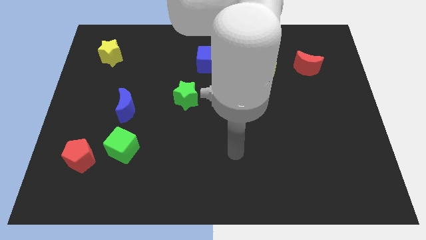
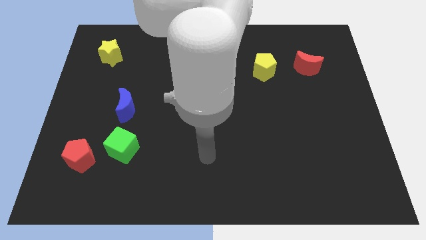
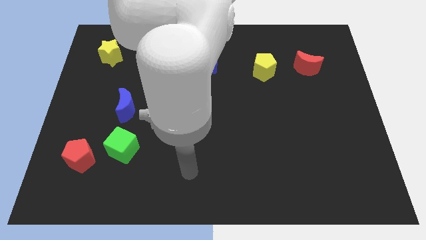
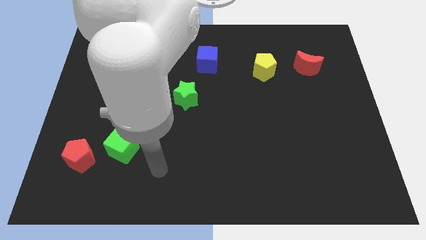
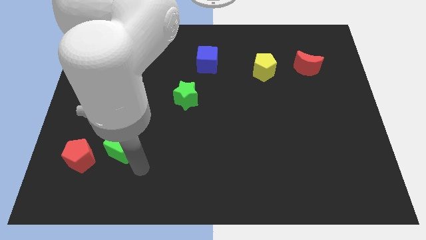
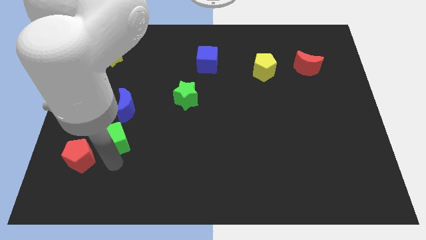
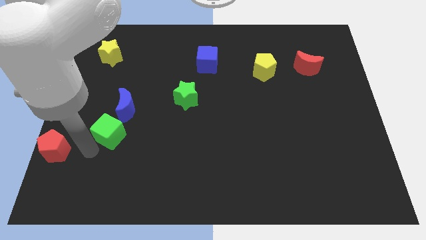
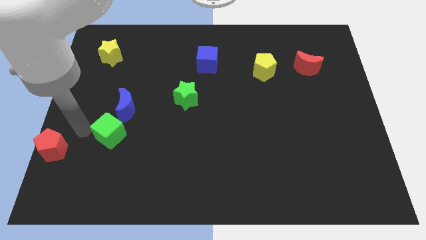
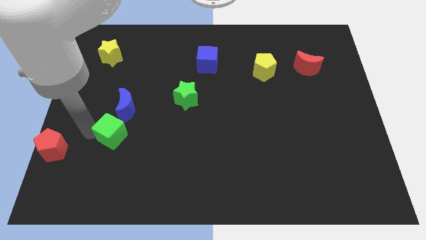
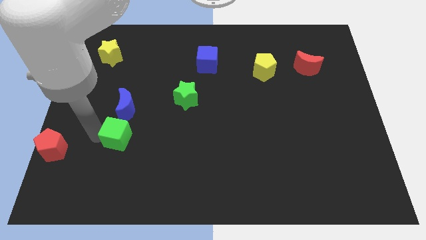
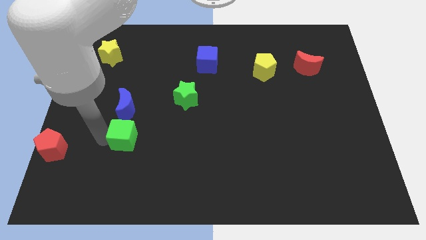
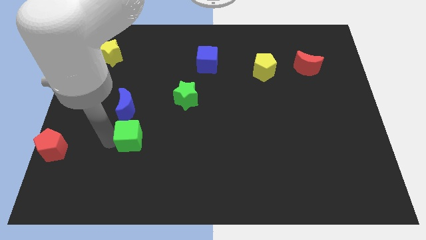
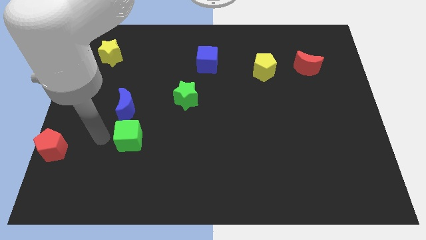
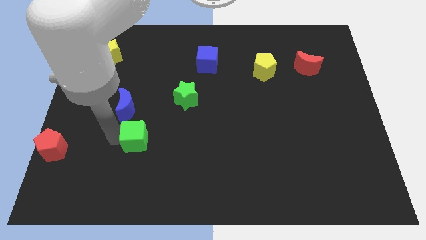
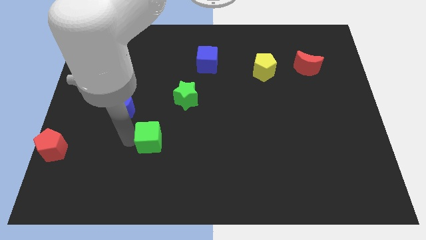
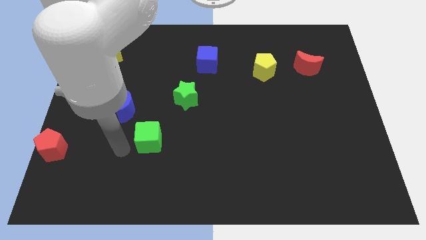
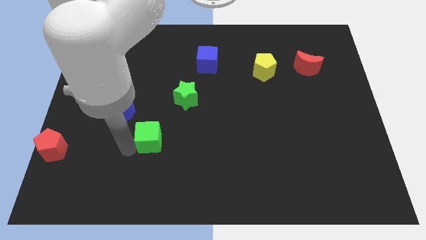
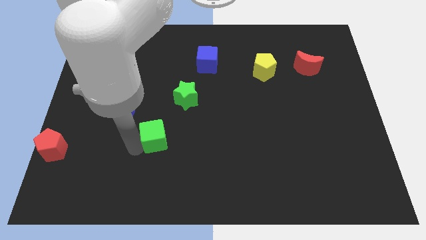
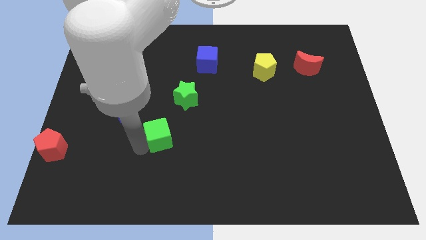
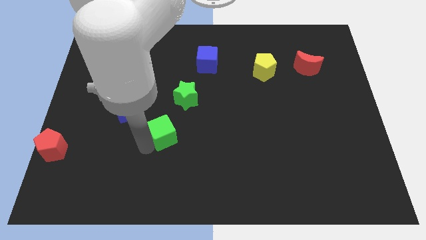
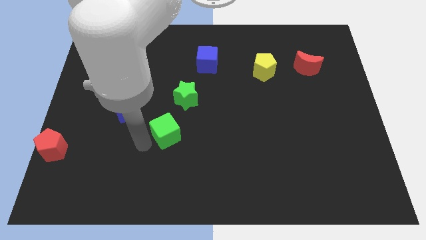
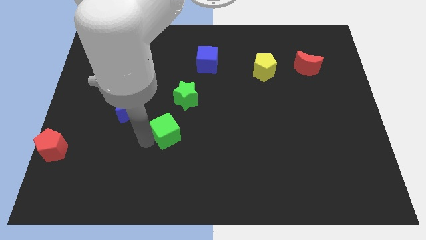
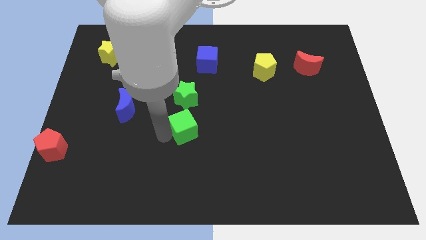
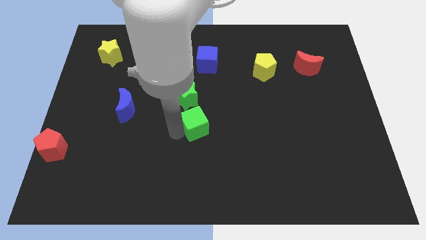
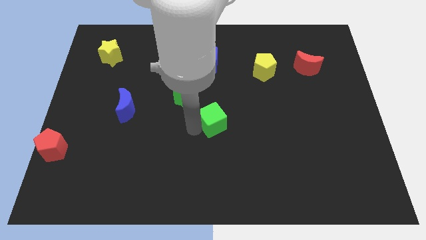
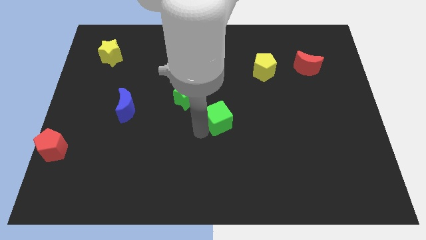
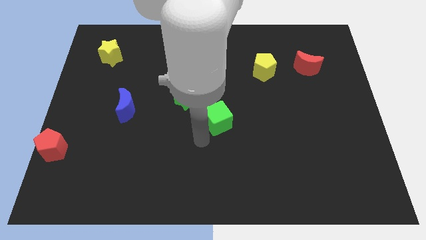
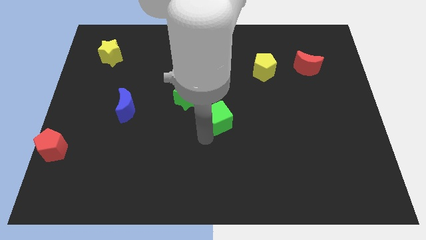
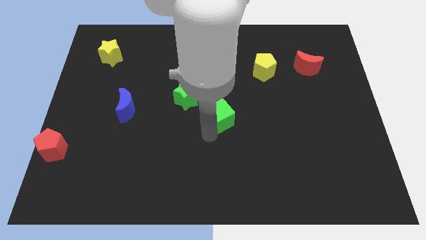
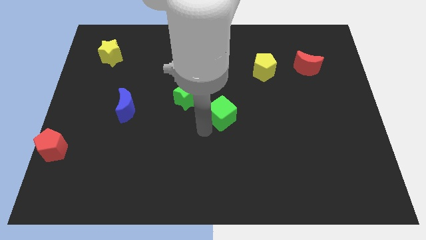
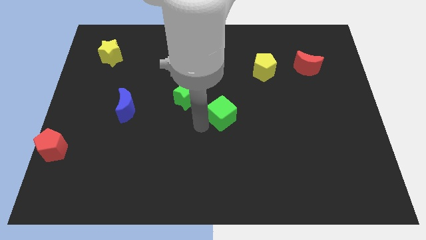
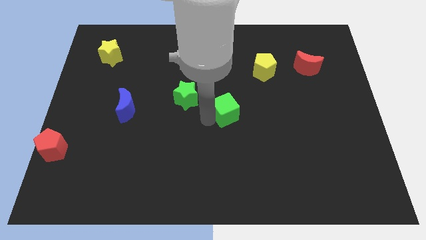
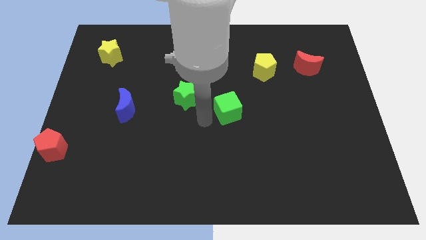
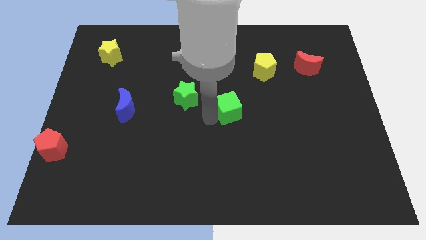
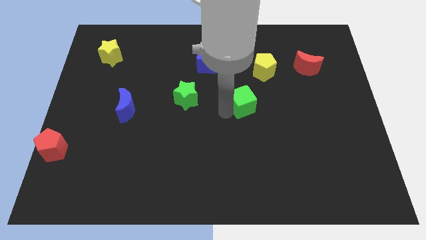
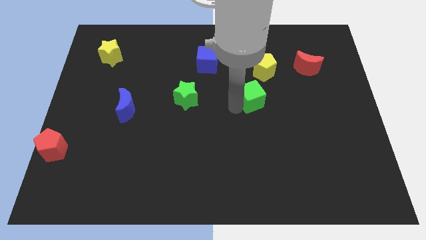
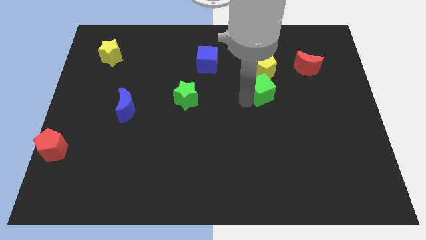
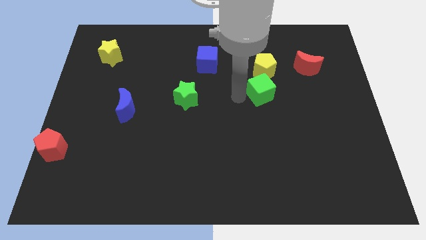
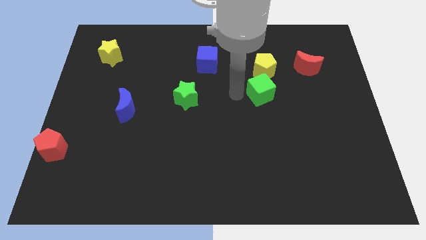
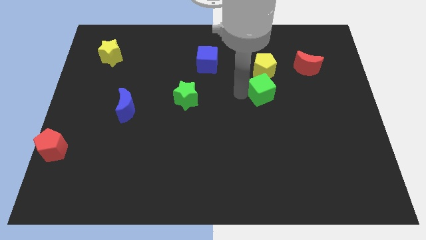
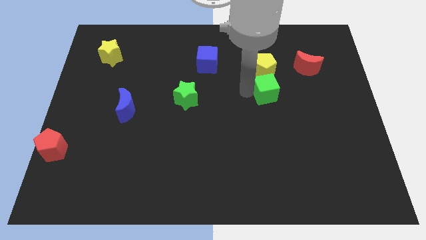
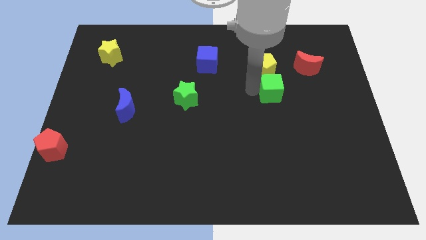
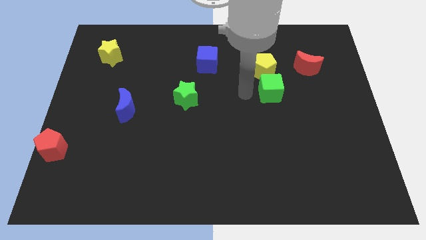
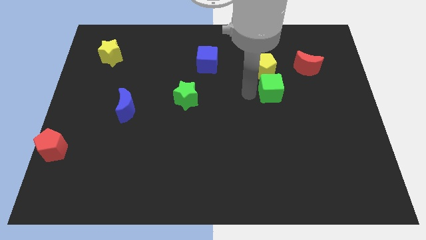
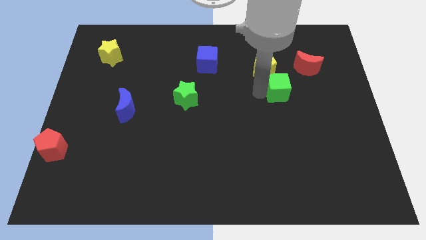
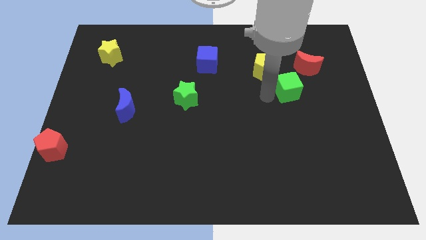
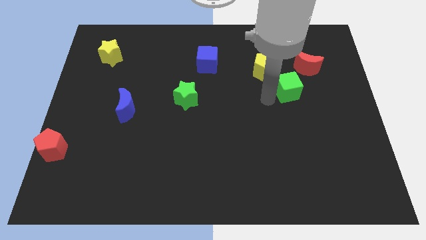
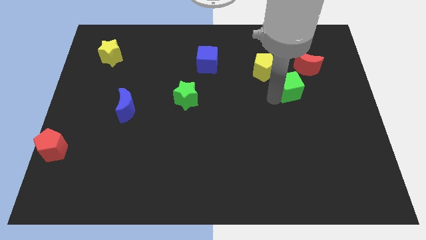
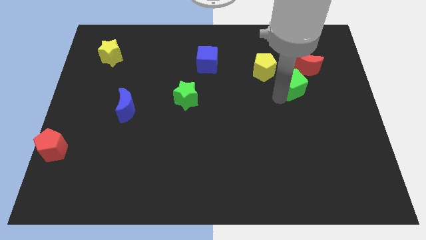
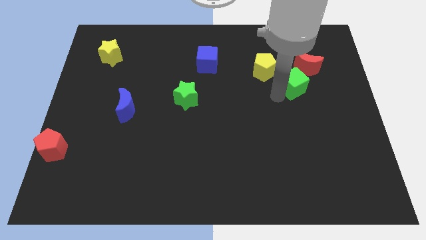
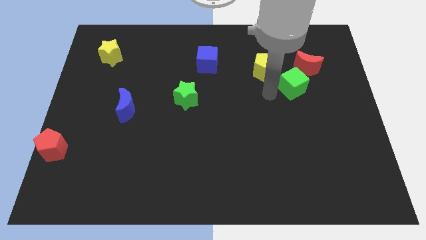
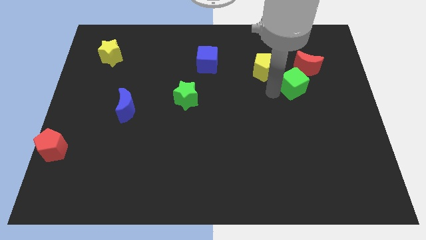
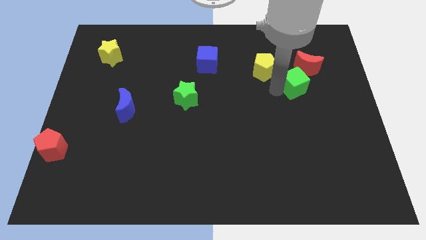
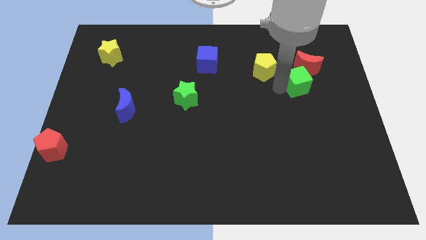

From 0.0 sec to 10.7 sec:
push the green cube to the right side of the yellow pentagon

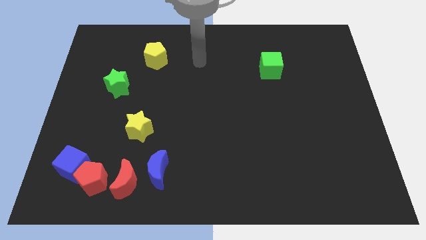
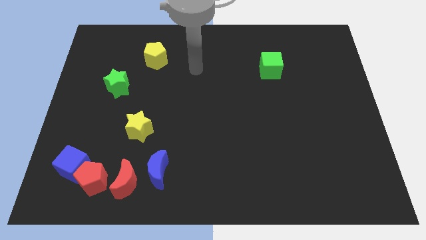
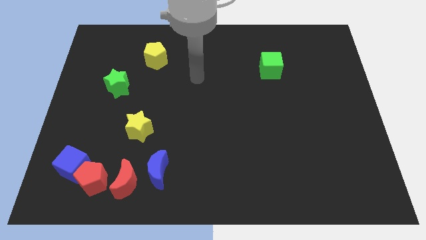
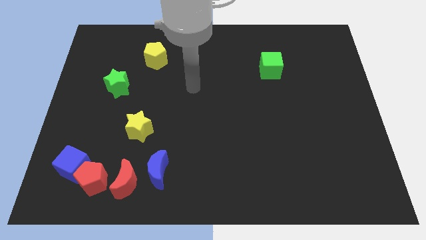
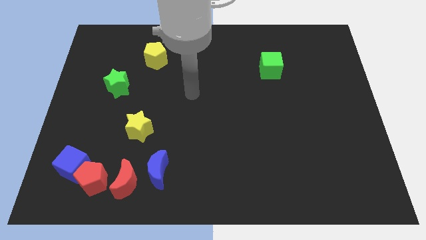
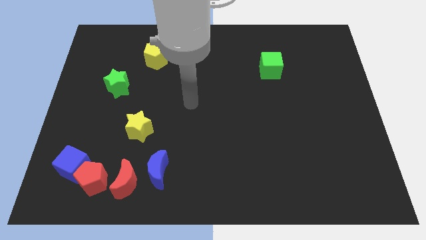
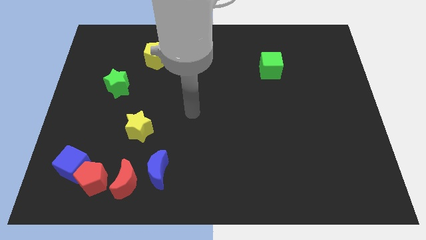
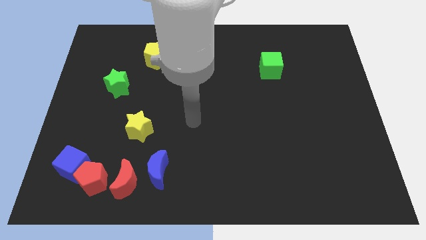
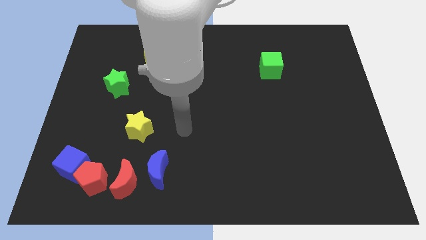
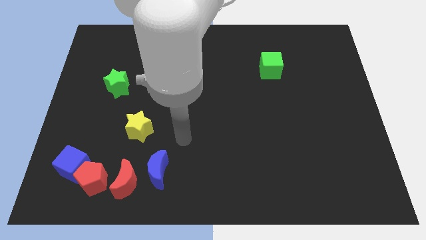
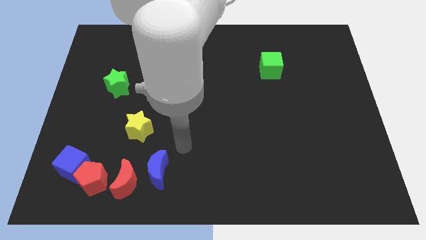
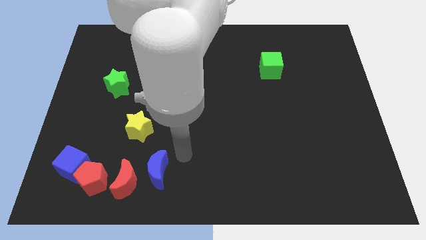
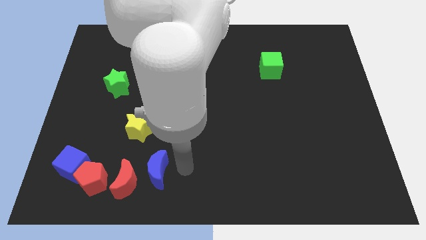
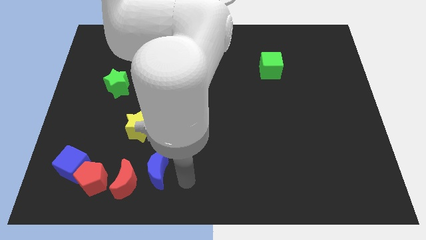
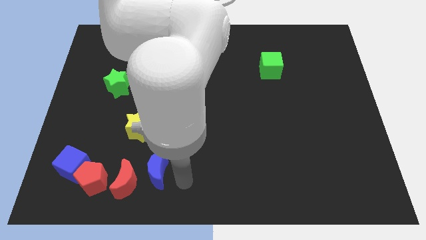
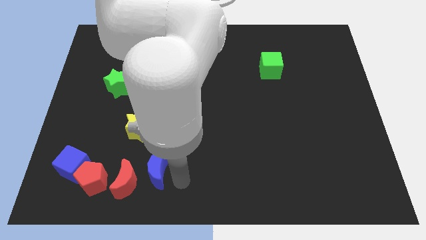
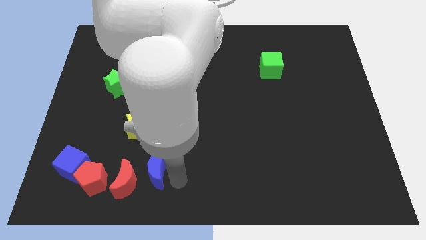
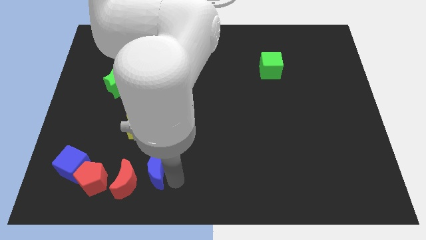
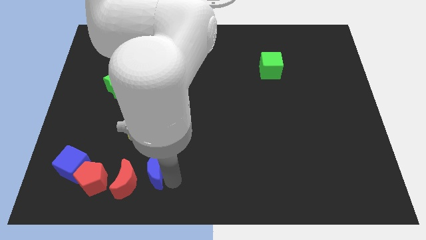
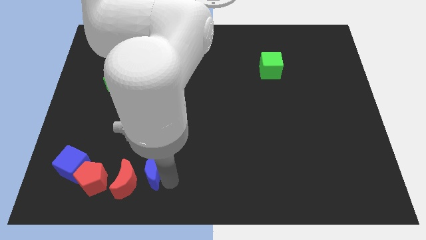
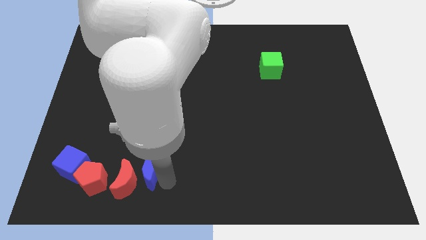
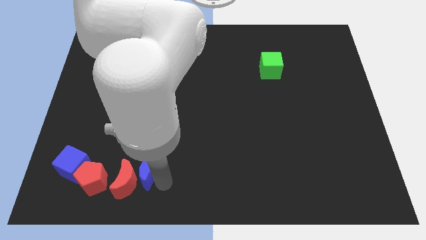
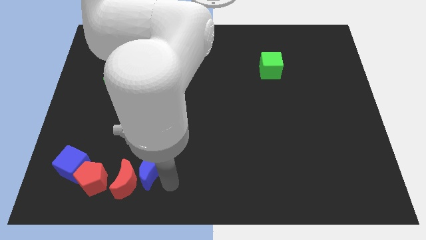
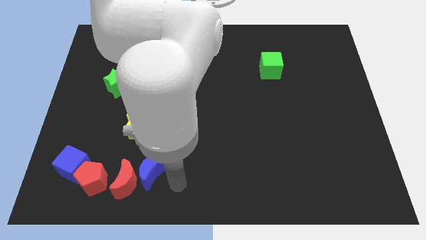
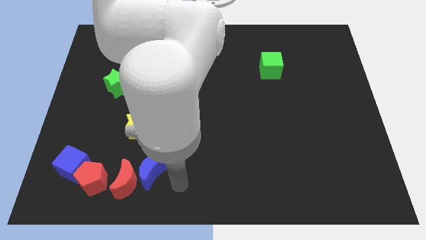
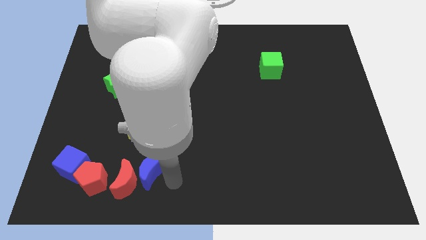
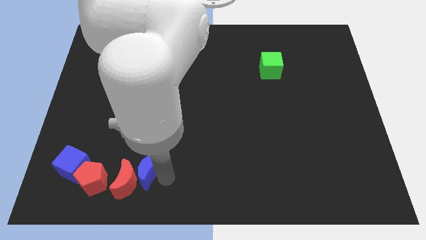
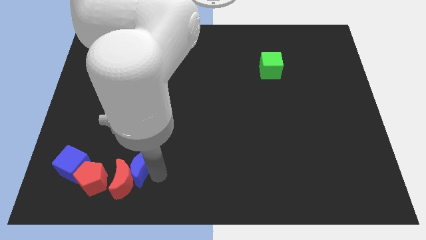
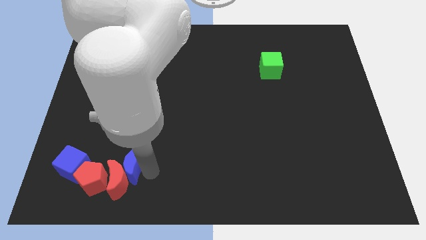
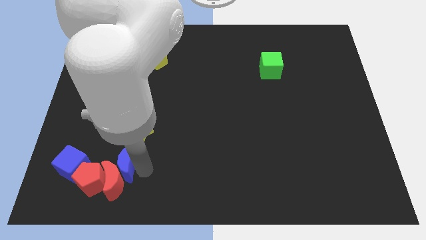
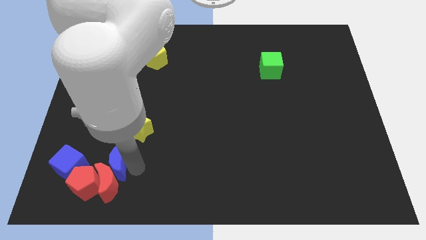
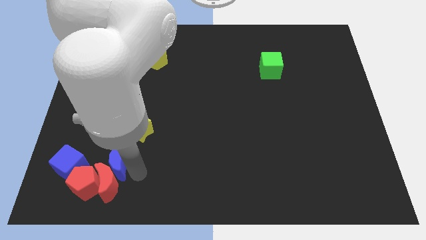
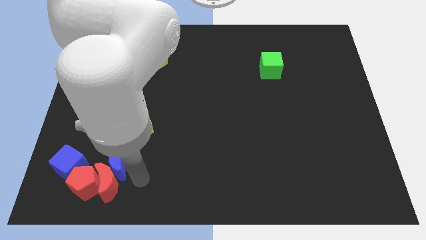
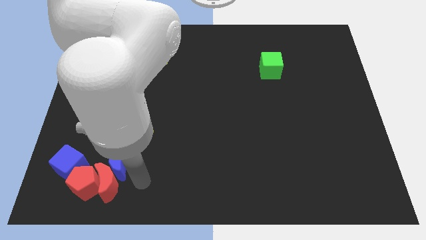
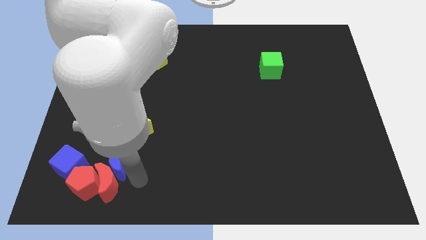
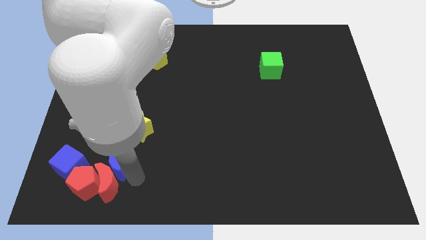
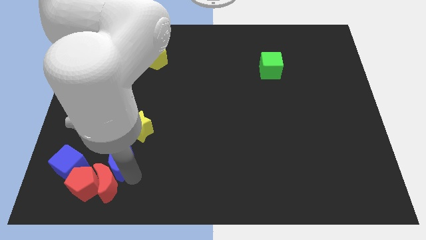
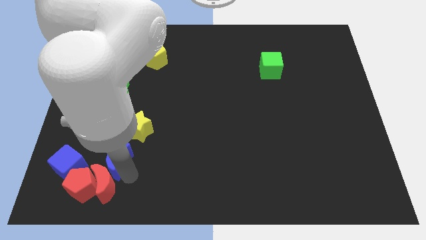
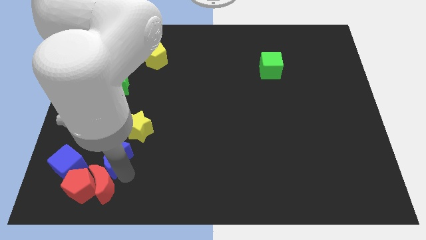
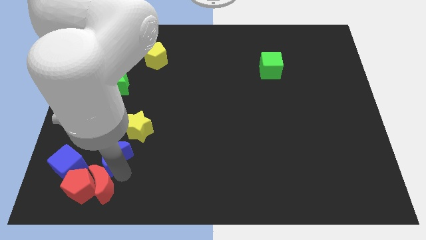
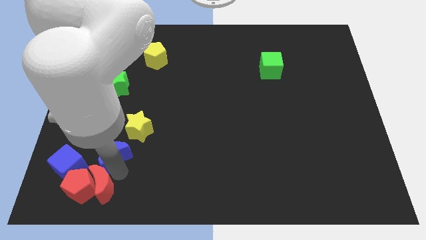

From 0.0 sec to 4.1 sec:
put the blue moon to the top right side of the blue cube
